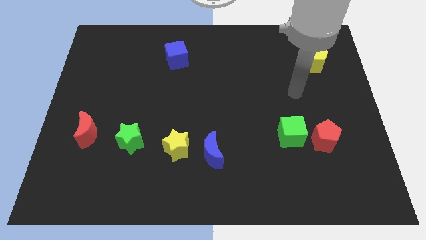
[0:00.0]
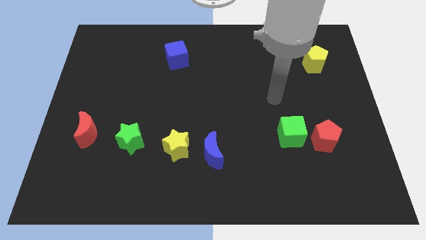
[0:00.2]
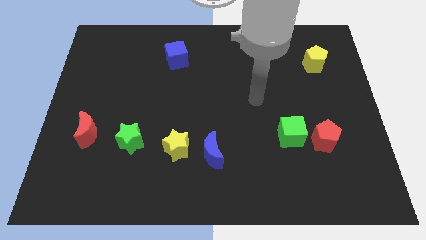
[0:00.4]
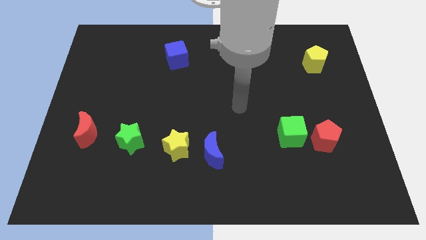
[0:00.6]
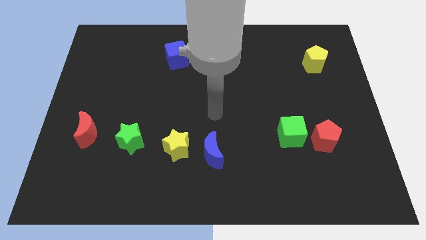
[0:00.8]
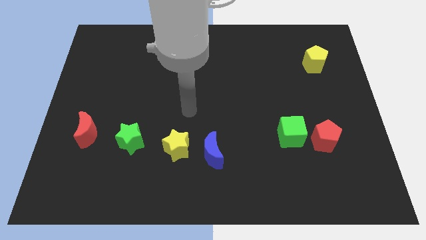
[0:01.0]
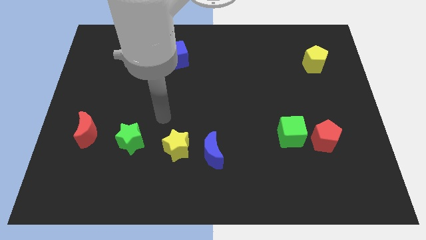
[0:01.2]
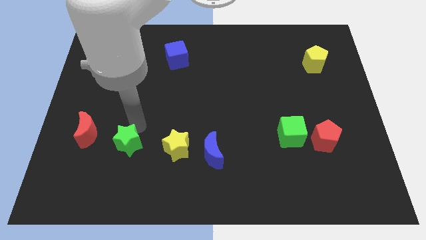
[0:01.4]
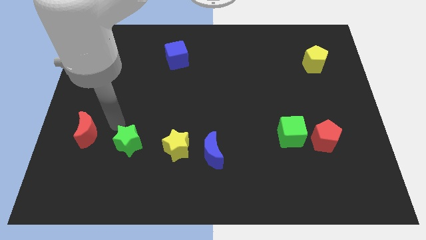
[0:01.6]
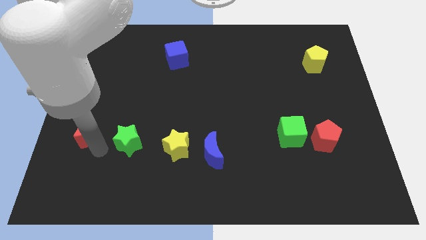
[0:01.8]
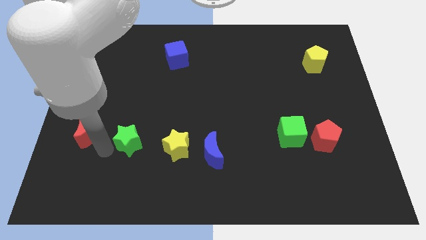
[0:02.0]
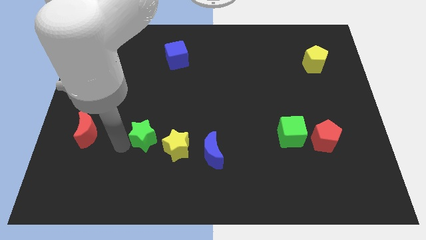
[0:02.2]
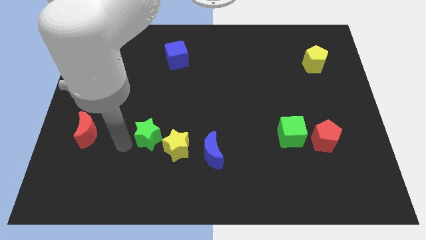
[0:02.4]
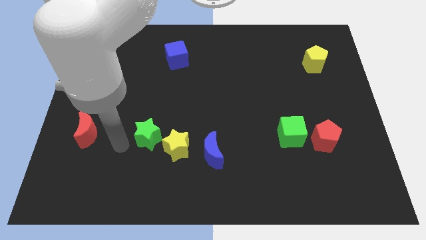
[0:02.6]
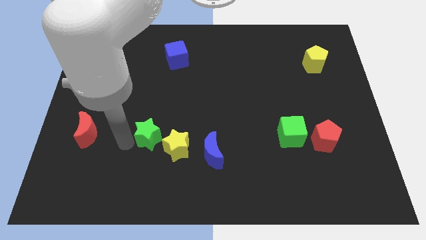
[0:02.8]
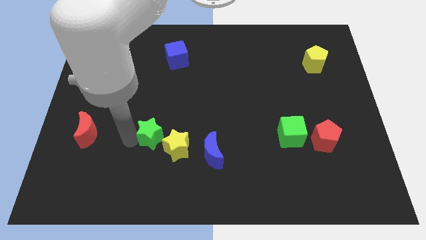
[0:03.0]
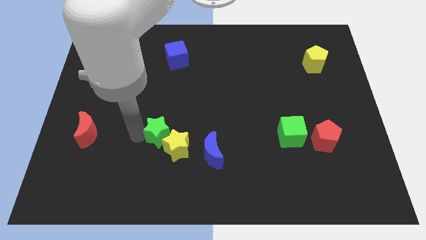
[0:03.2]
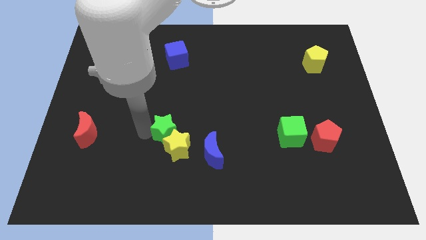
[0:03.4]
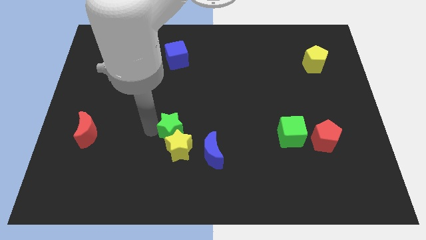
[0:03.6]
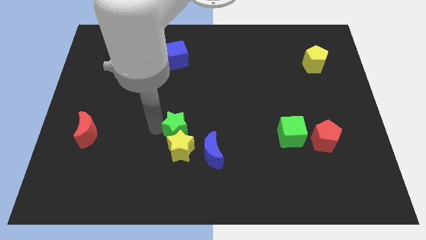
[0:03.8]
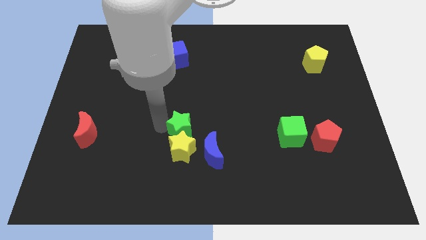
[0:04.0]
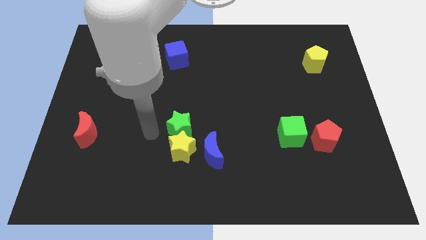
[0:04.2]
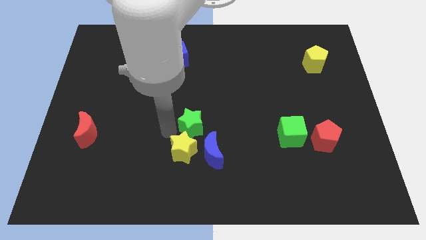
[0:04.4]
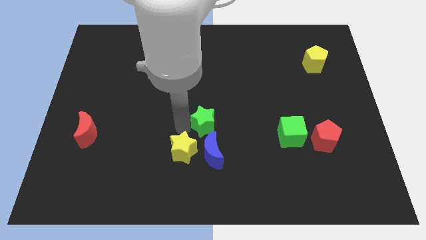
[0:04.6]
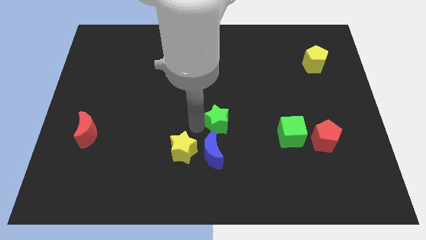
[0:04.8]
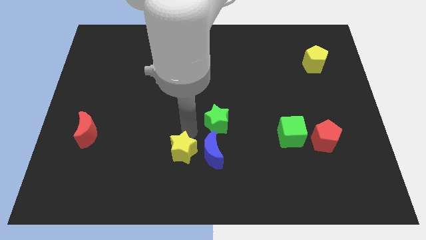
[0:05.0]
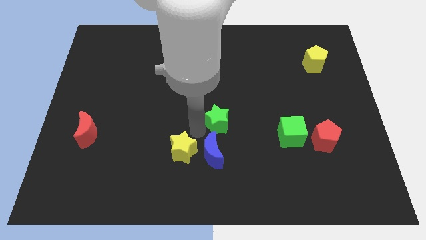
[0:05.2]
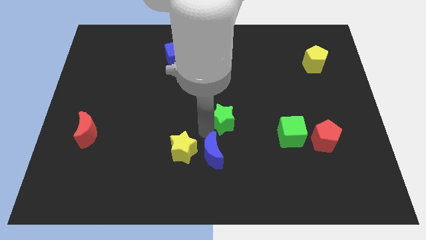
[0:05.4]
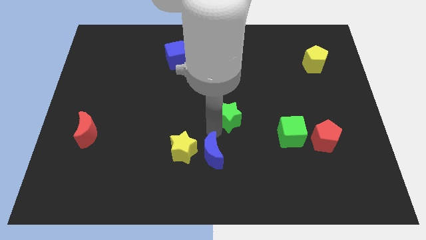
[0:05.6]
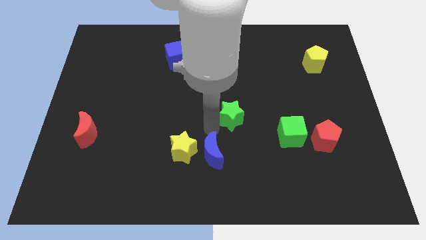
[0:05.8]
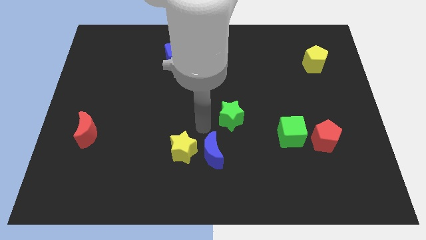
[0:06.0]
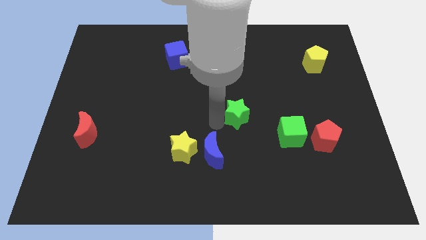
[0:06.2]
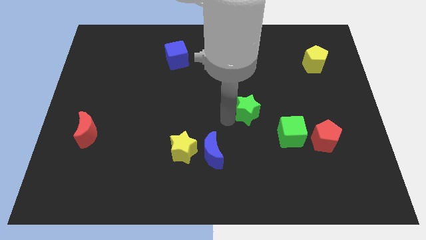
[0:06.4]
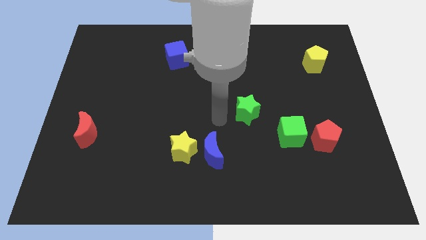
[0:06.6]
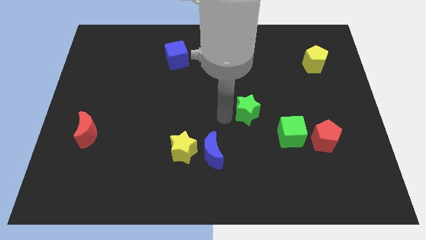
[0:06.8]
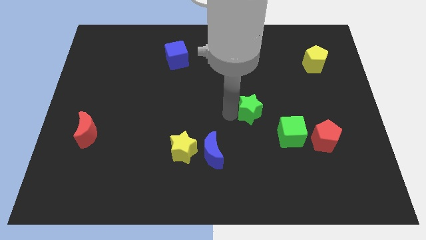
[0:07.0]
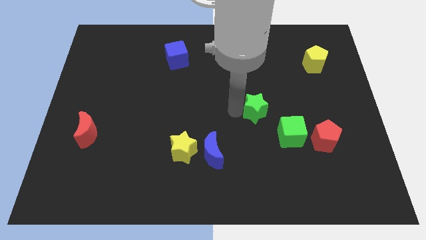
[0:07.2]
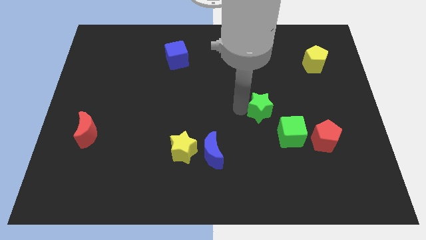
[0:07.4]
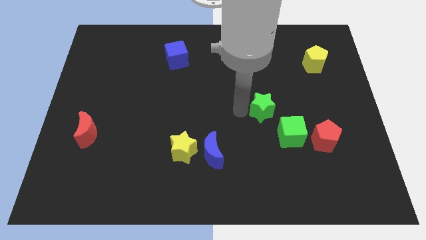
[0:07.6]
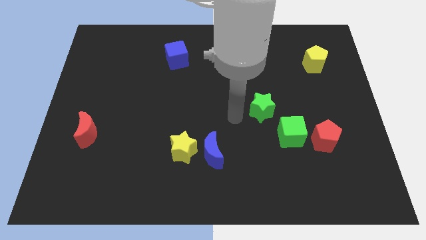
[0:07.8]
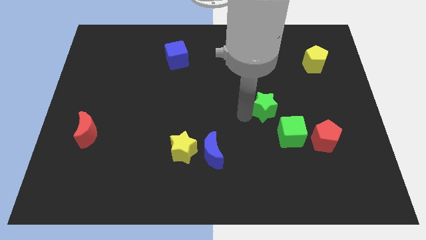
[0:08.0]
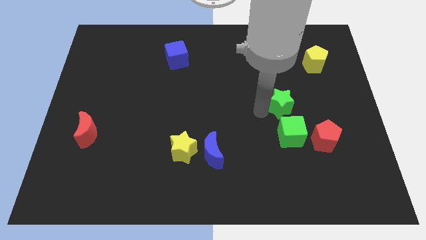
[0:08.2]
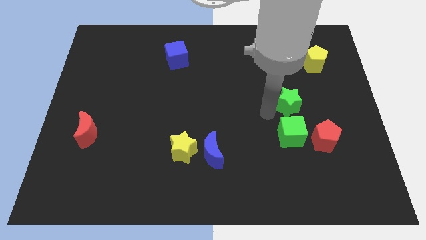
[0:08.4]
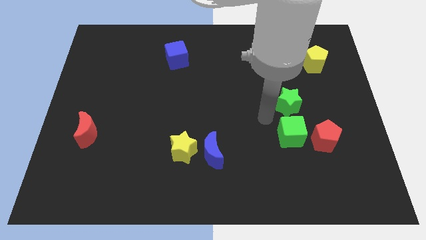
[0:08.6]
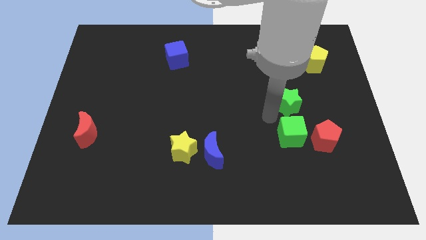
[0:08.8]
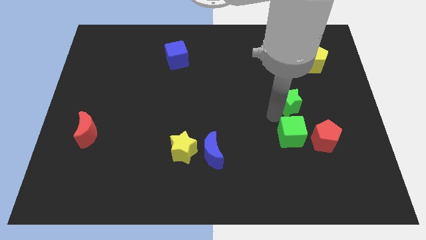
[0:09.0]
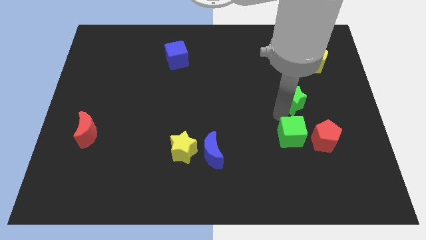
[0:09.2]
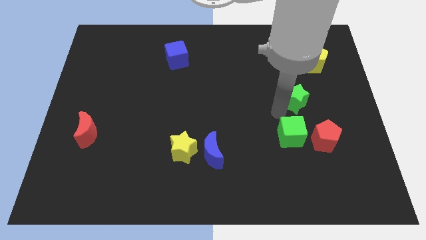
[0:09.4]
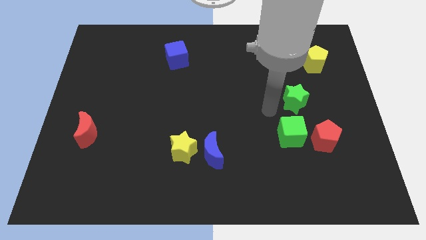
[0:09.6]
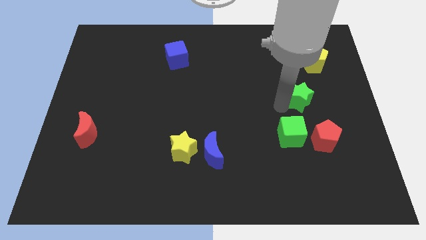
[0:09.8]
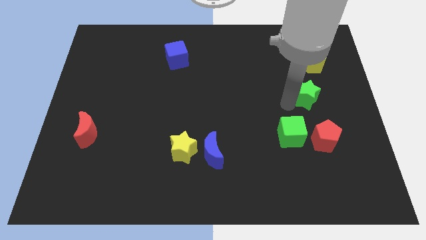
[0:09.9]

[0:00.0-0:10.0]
put the green star to the bottom of the yellow pentagon

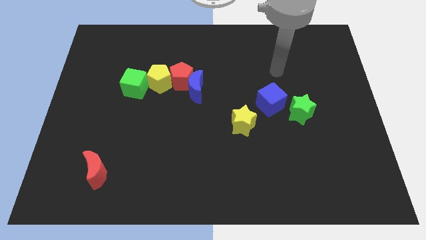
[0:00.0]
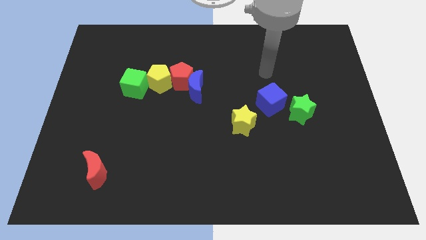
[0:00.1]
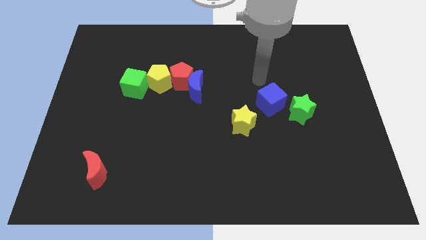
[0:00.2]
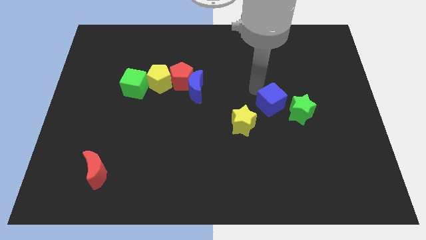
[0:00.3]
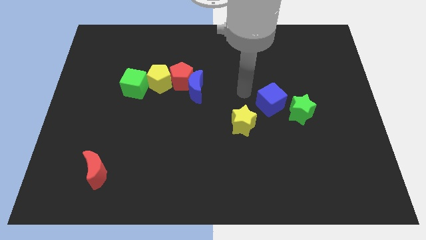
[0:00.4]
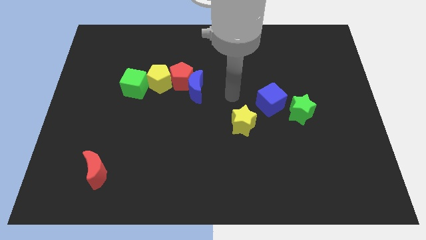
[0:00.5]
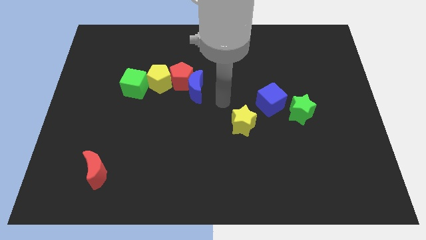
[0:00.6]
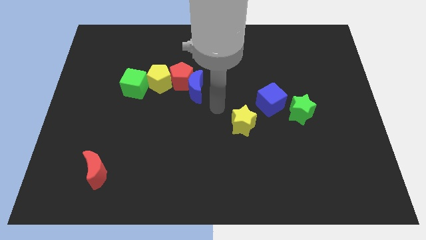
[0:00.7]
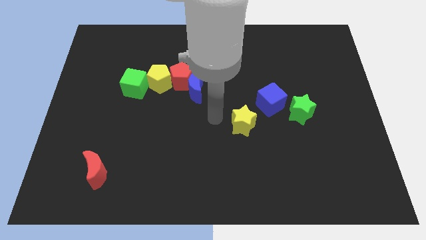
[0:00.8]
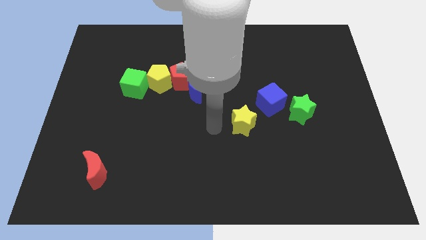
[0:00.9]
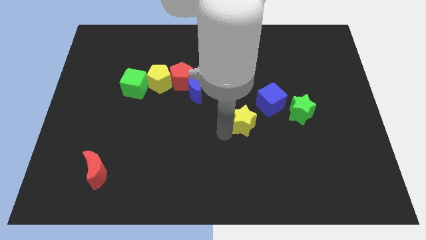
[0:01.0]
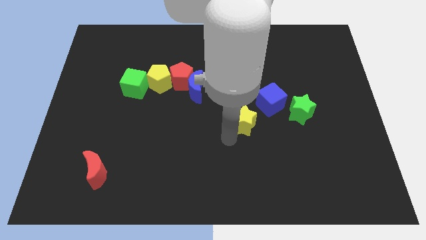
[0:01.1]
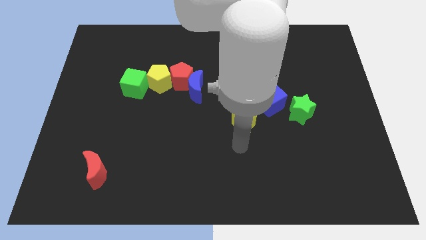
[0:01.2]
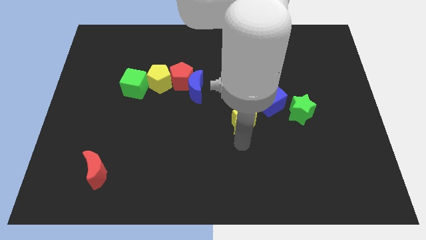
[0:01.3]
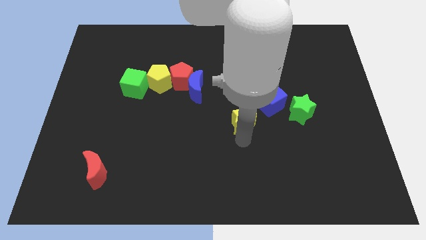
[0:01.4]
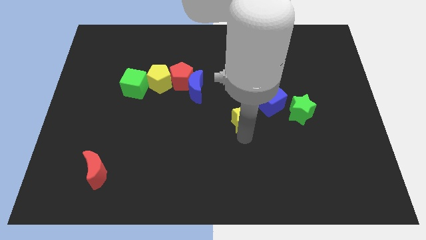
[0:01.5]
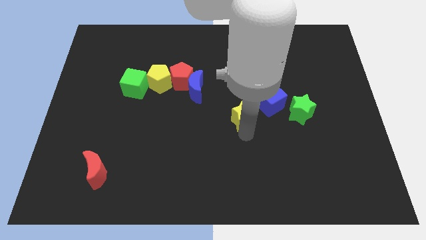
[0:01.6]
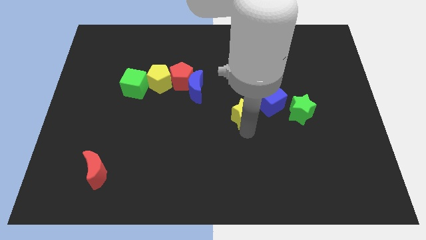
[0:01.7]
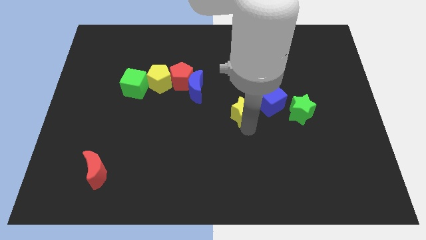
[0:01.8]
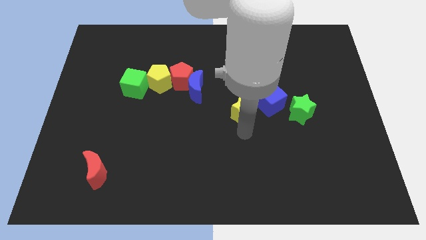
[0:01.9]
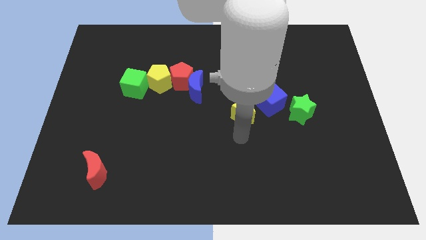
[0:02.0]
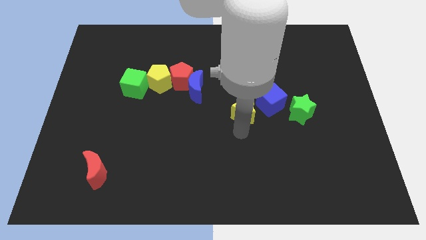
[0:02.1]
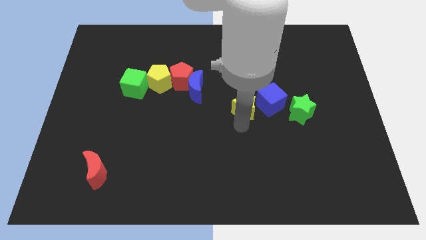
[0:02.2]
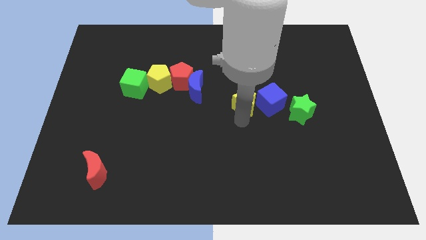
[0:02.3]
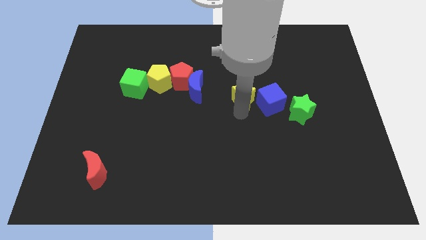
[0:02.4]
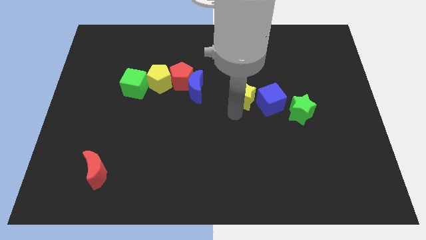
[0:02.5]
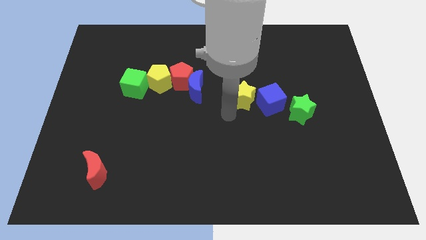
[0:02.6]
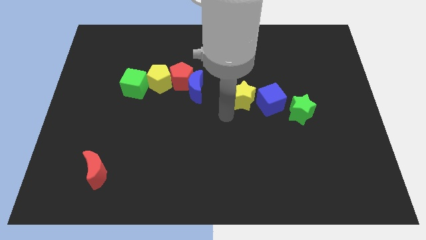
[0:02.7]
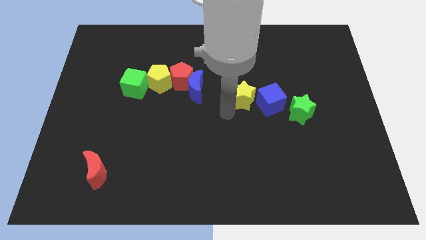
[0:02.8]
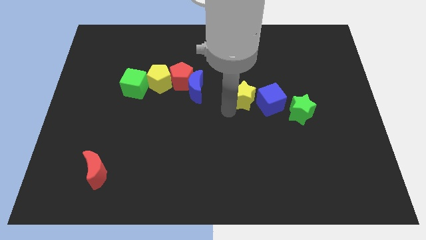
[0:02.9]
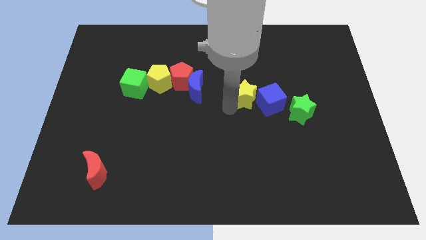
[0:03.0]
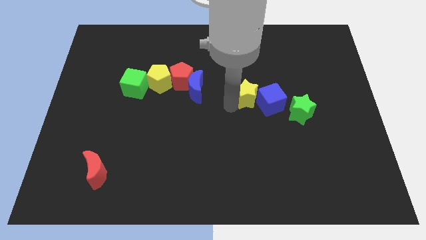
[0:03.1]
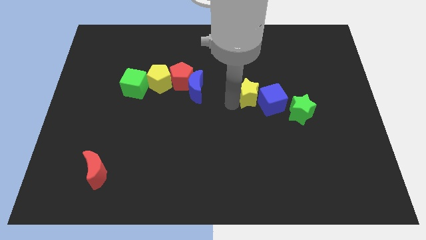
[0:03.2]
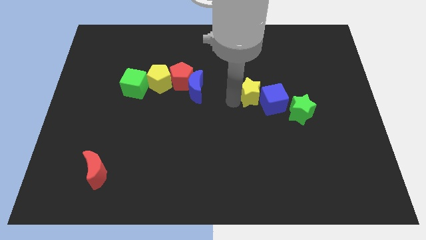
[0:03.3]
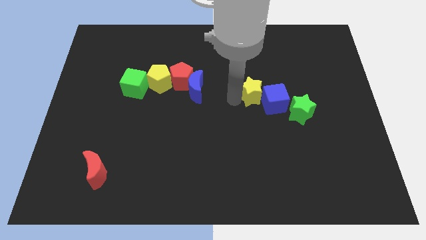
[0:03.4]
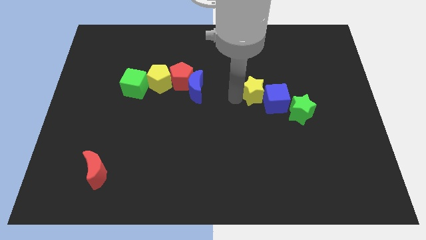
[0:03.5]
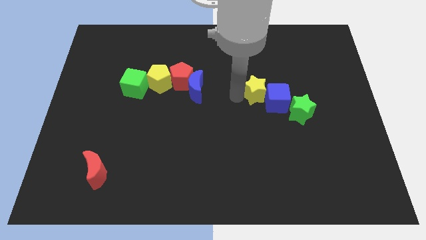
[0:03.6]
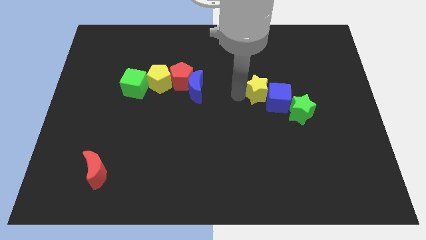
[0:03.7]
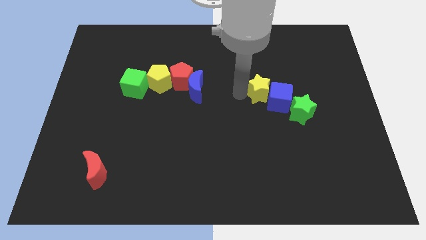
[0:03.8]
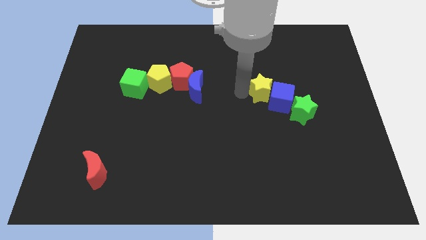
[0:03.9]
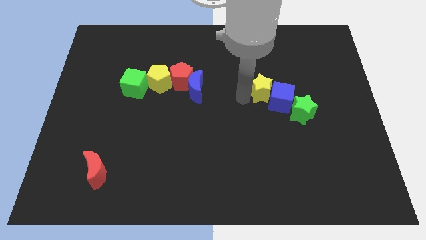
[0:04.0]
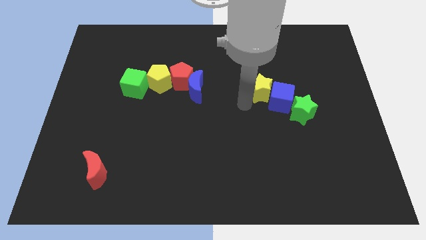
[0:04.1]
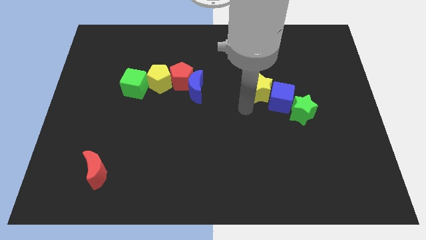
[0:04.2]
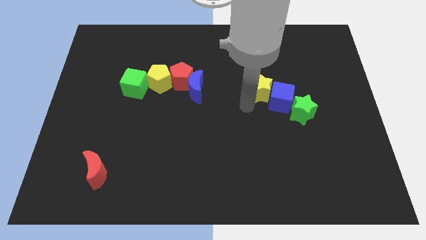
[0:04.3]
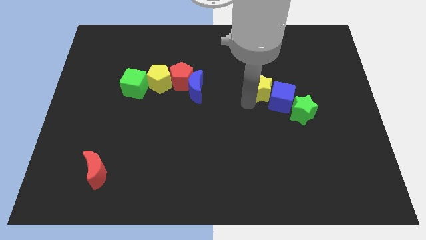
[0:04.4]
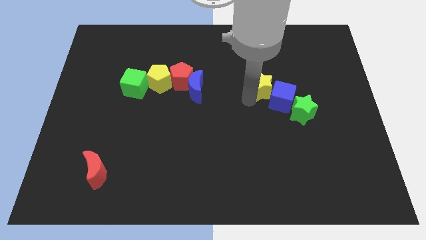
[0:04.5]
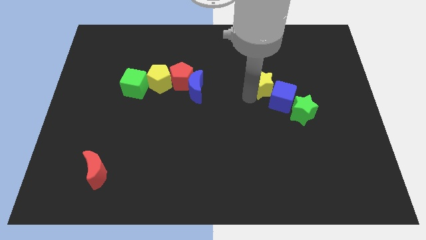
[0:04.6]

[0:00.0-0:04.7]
move the yellow star to the top of the blue cube
